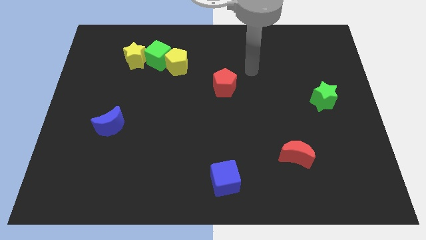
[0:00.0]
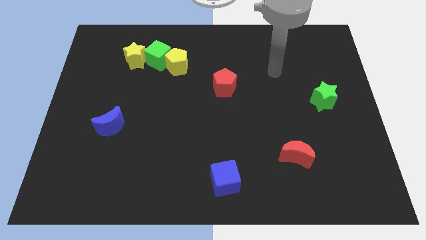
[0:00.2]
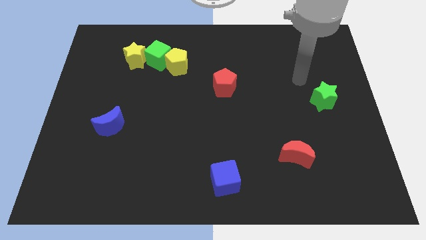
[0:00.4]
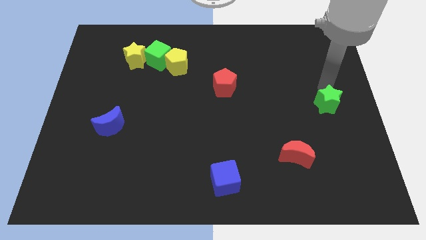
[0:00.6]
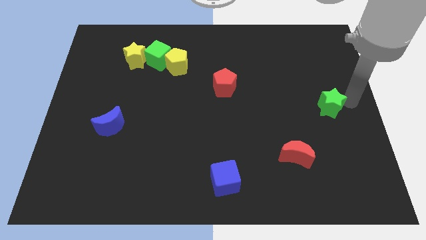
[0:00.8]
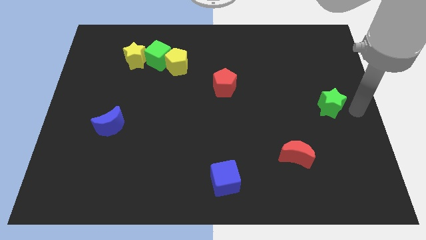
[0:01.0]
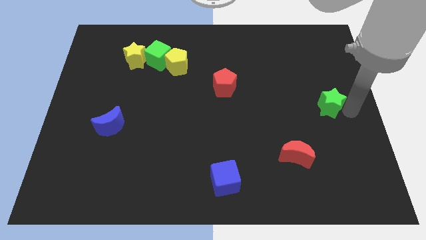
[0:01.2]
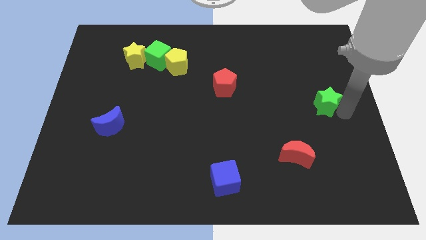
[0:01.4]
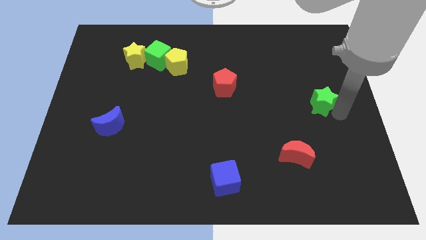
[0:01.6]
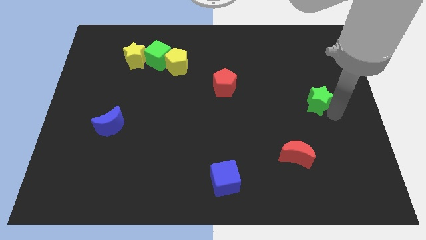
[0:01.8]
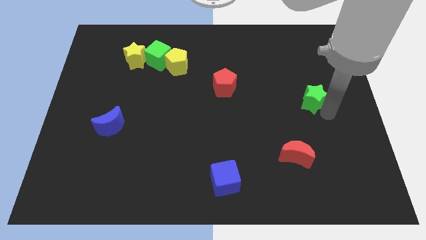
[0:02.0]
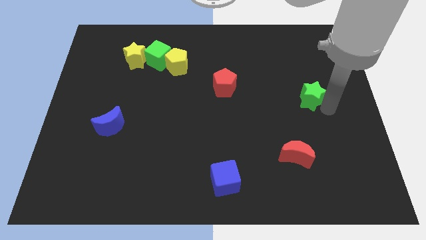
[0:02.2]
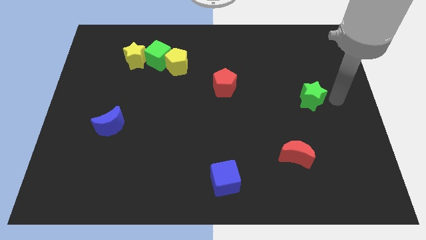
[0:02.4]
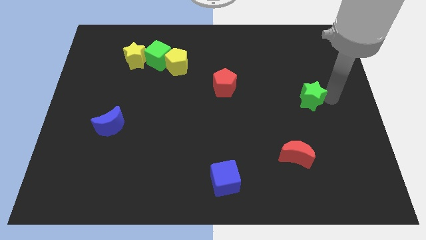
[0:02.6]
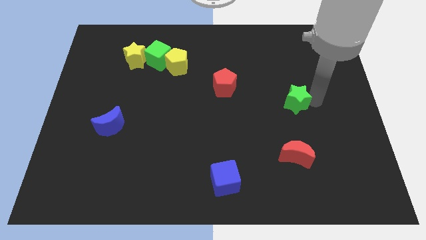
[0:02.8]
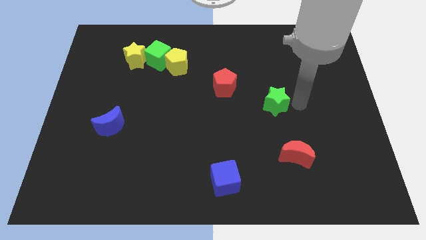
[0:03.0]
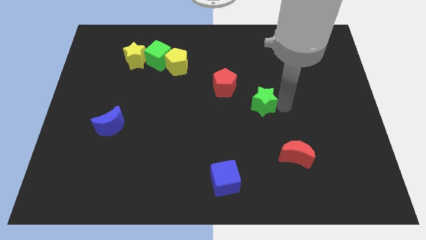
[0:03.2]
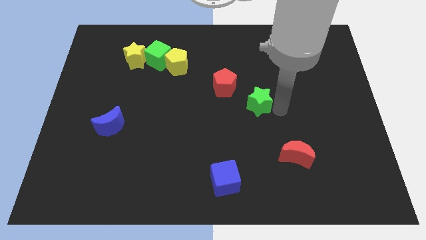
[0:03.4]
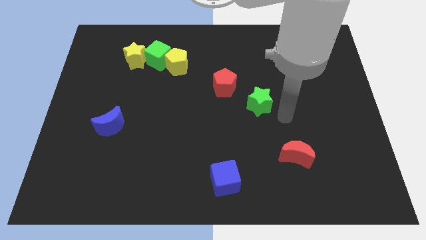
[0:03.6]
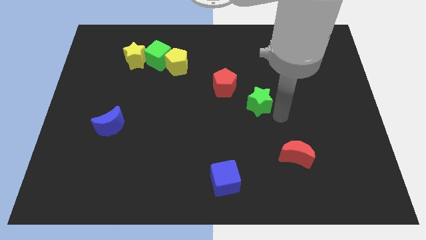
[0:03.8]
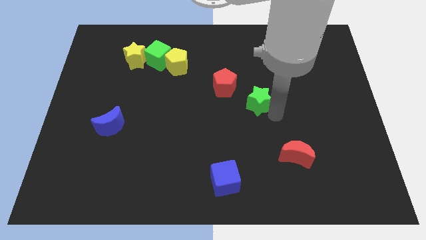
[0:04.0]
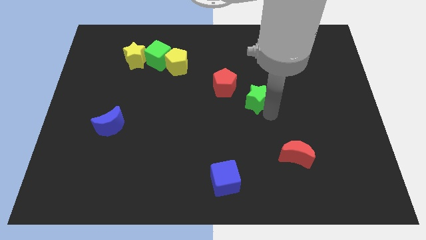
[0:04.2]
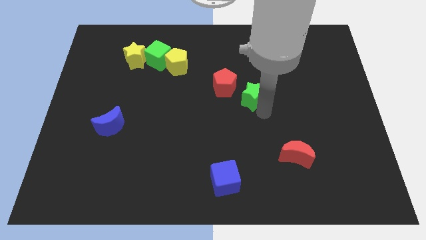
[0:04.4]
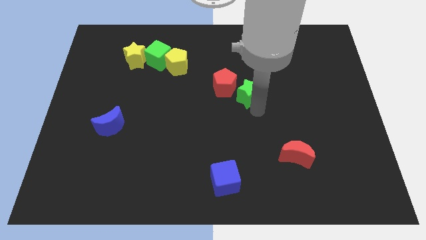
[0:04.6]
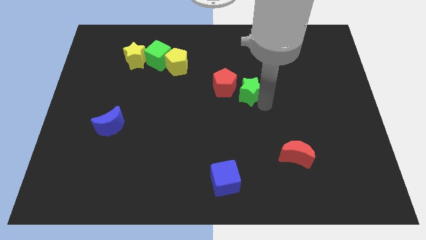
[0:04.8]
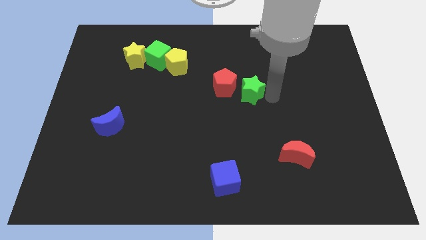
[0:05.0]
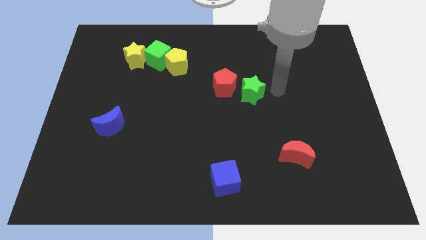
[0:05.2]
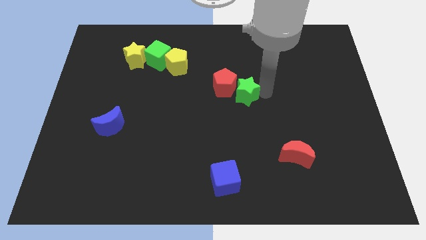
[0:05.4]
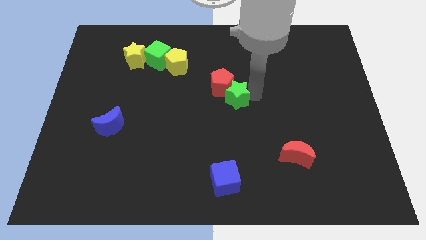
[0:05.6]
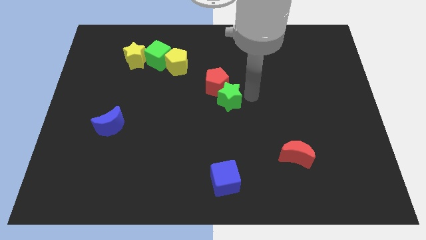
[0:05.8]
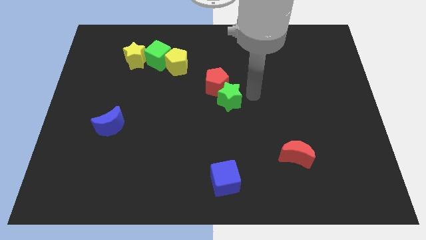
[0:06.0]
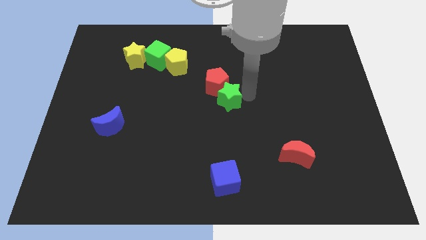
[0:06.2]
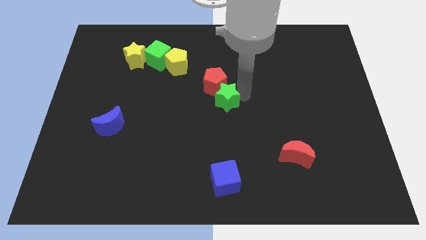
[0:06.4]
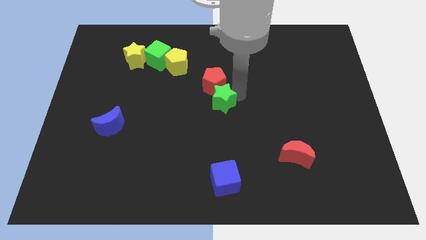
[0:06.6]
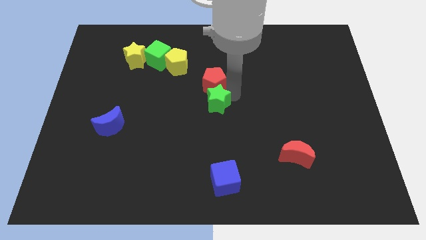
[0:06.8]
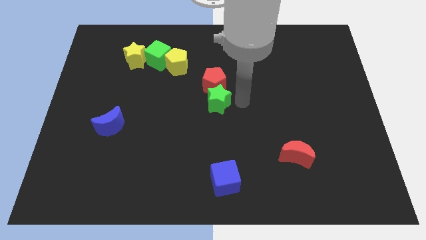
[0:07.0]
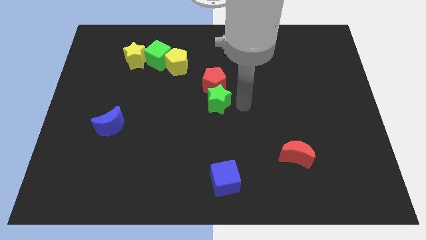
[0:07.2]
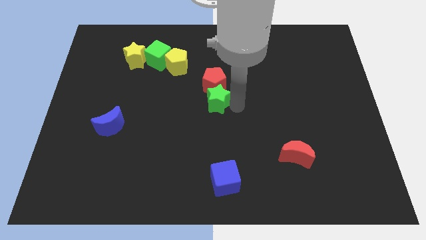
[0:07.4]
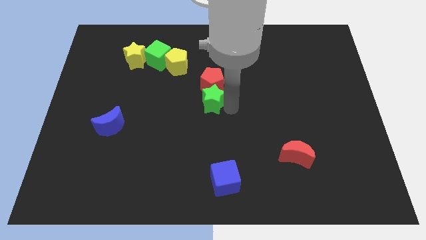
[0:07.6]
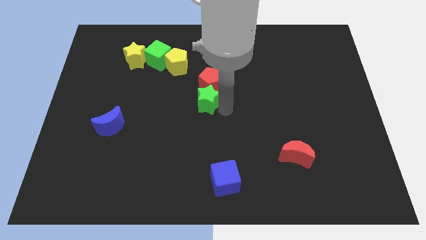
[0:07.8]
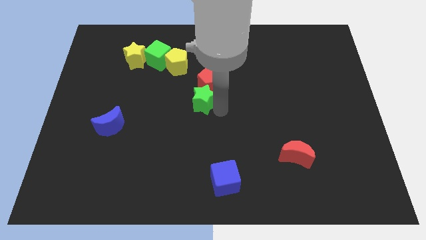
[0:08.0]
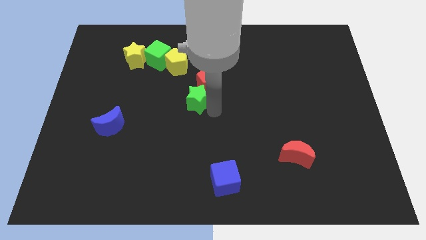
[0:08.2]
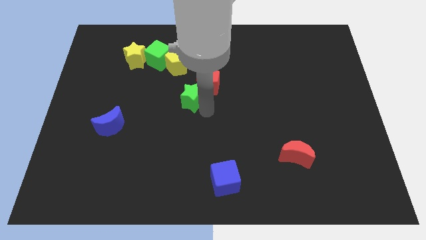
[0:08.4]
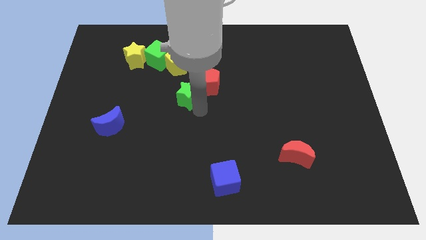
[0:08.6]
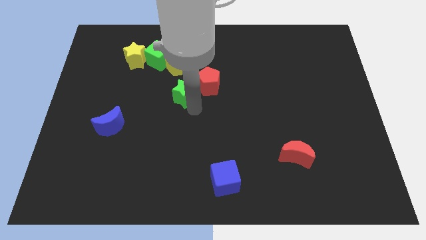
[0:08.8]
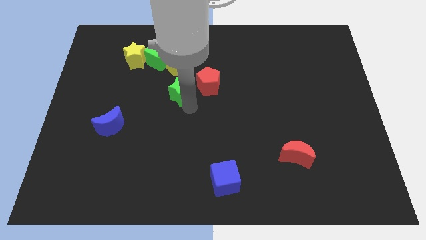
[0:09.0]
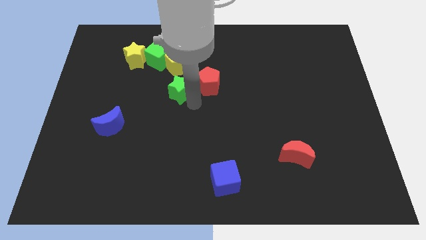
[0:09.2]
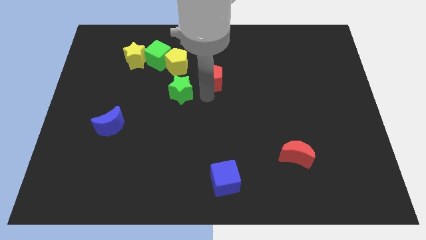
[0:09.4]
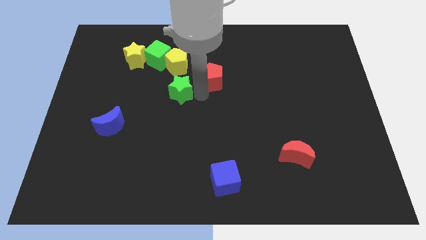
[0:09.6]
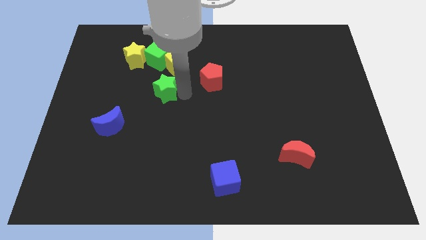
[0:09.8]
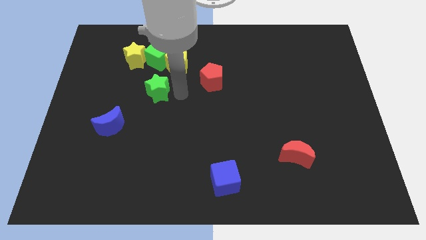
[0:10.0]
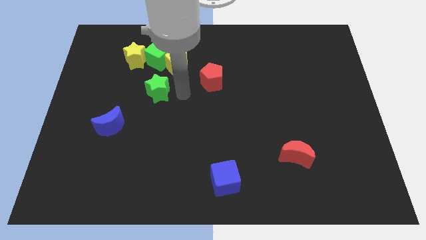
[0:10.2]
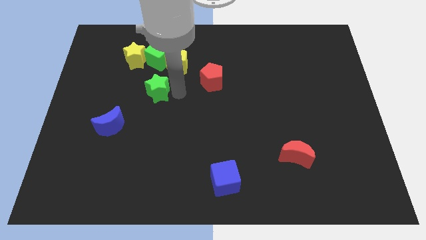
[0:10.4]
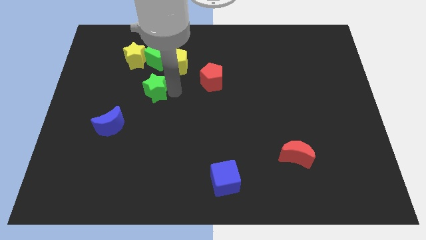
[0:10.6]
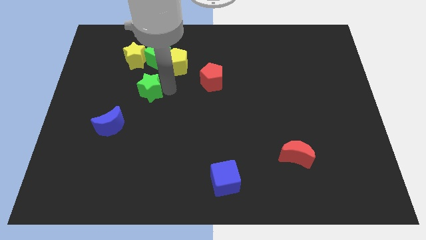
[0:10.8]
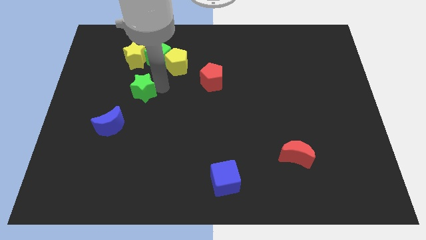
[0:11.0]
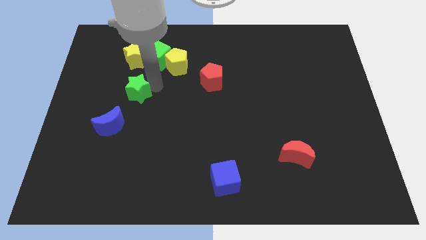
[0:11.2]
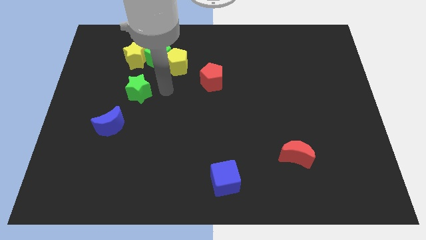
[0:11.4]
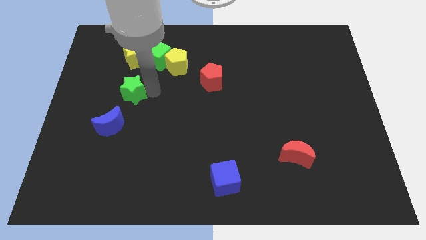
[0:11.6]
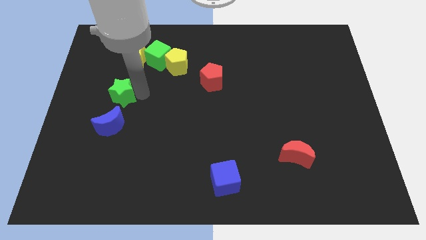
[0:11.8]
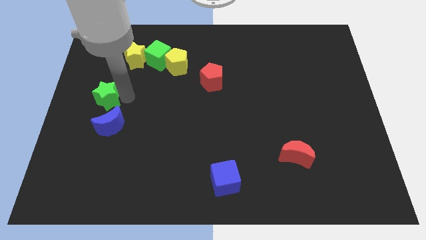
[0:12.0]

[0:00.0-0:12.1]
push the green star to the left side
